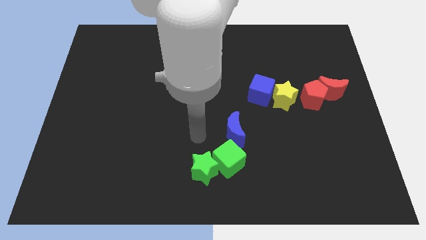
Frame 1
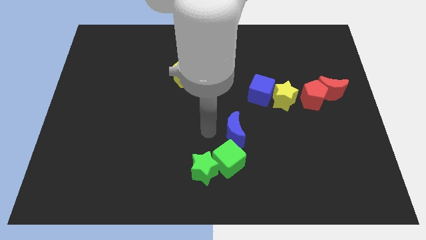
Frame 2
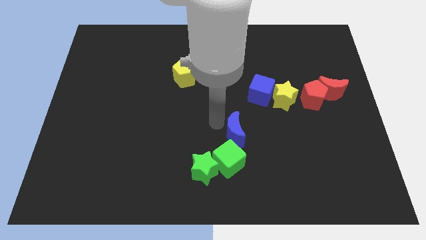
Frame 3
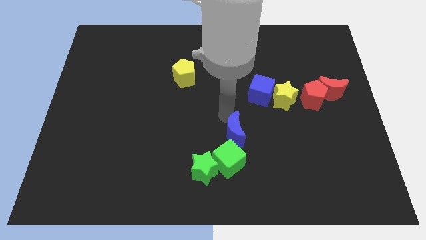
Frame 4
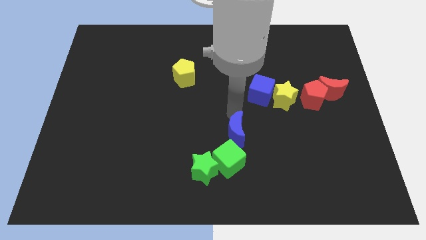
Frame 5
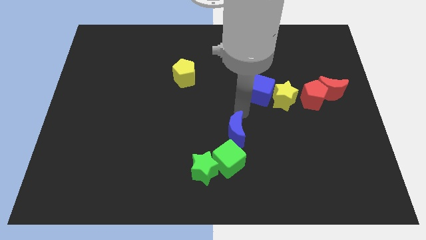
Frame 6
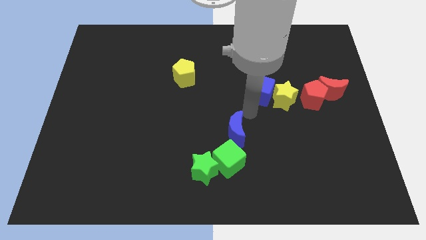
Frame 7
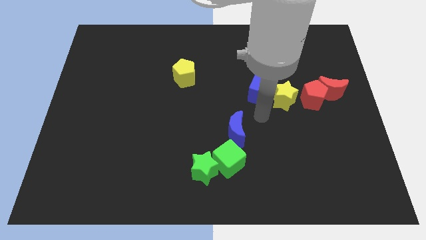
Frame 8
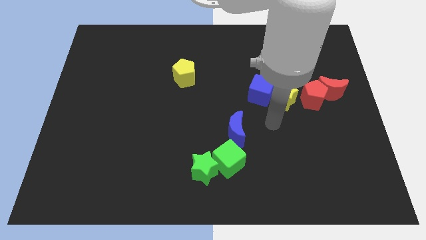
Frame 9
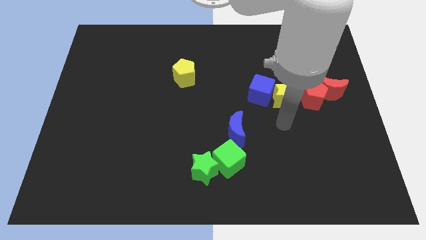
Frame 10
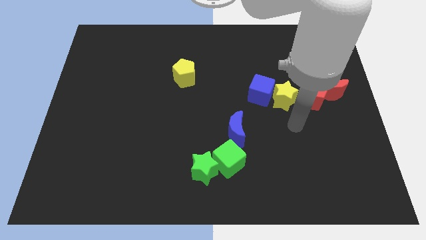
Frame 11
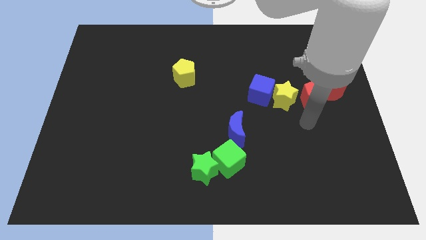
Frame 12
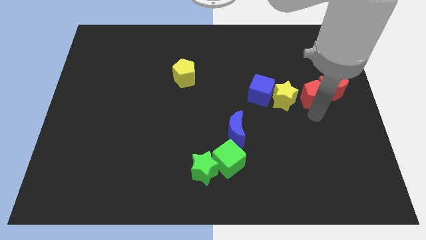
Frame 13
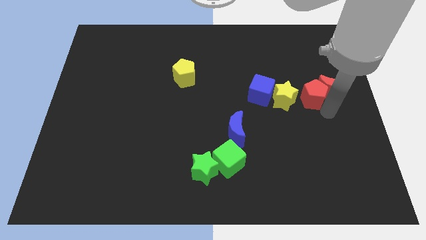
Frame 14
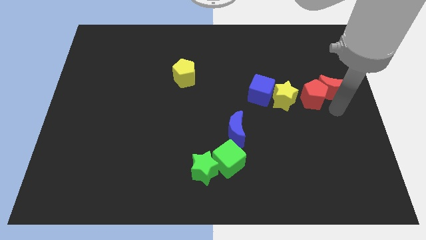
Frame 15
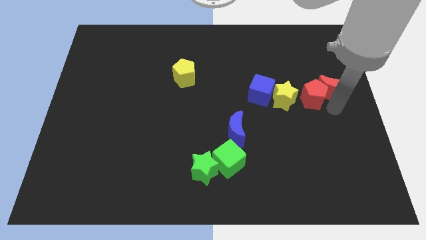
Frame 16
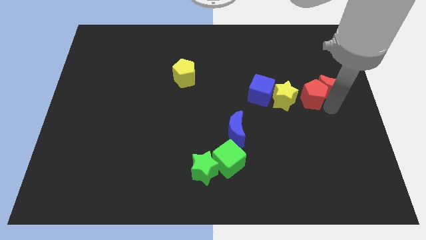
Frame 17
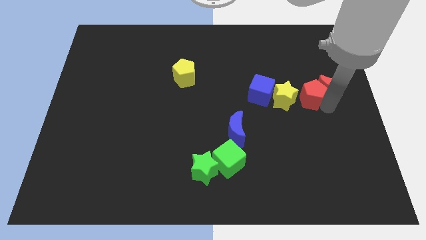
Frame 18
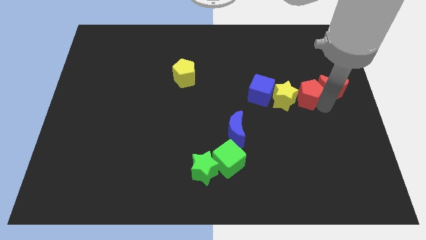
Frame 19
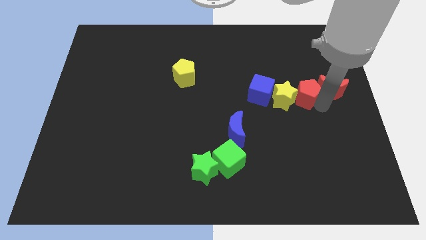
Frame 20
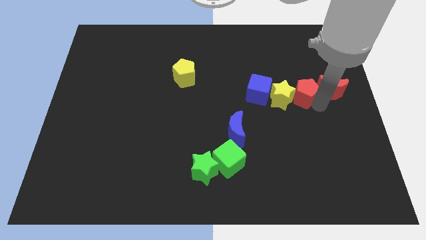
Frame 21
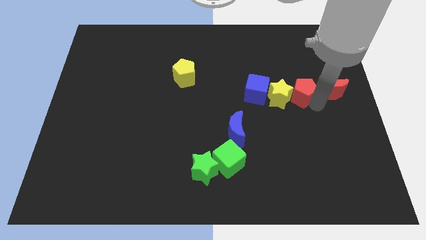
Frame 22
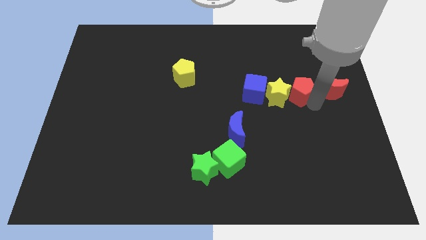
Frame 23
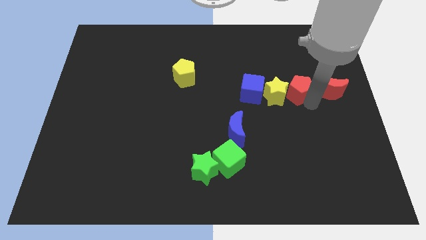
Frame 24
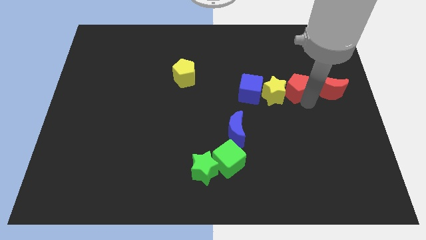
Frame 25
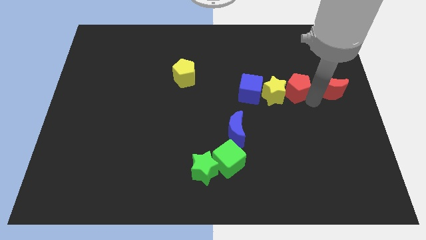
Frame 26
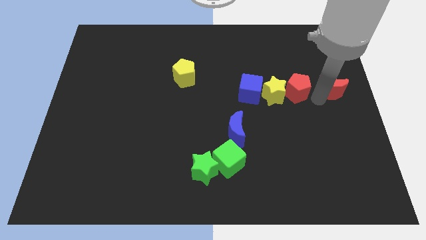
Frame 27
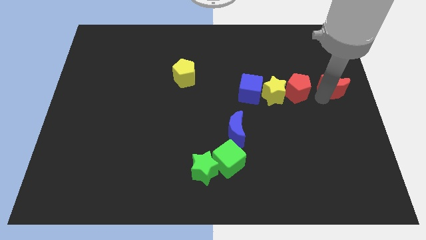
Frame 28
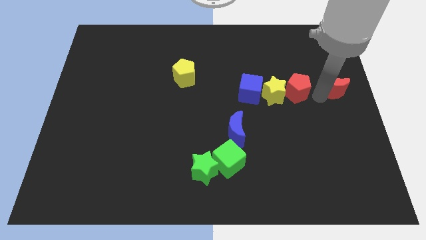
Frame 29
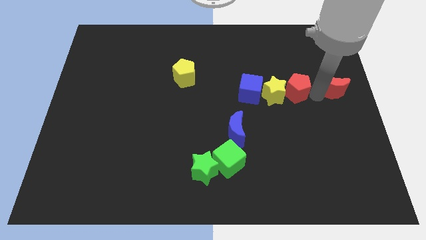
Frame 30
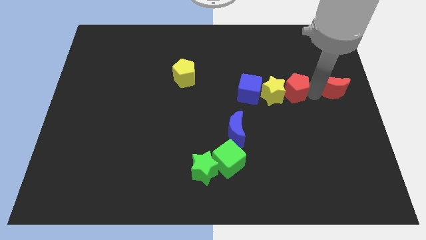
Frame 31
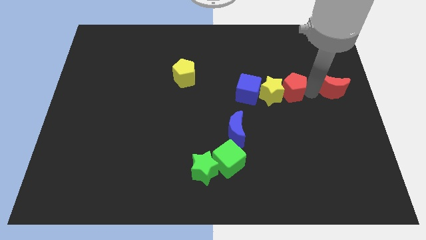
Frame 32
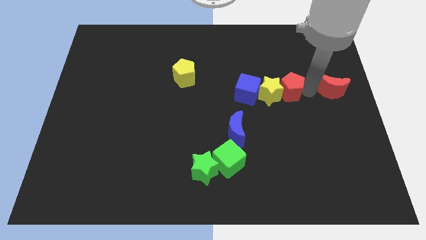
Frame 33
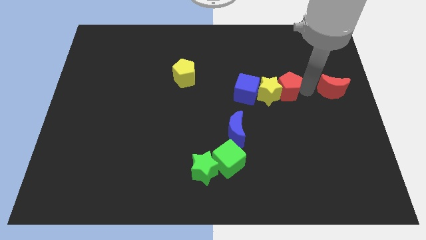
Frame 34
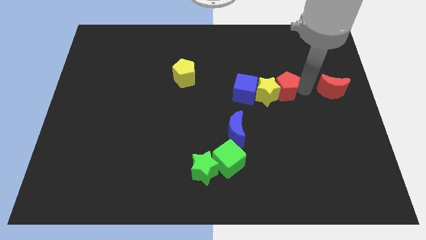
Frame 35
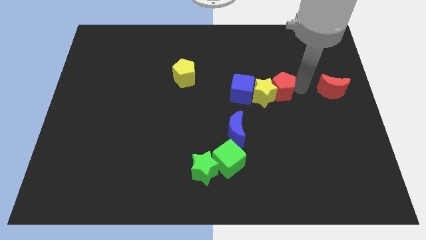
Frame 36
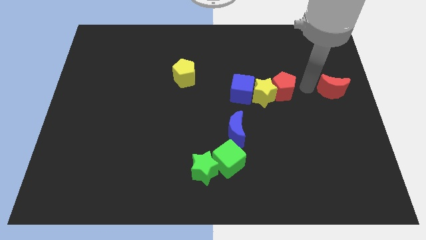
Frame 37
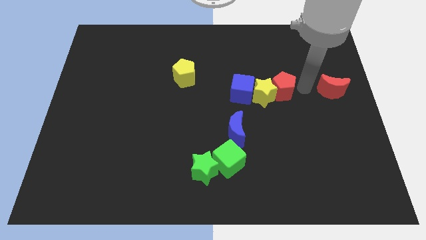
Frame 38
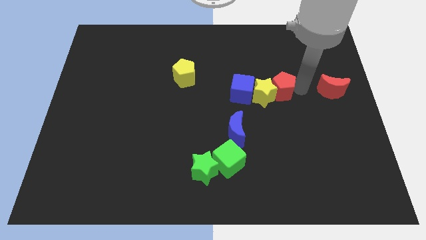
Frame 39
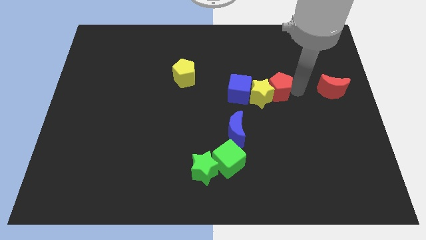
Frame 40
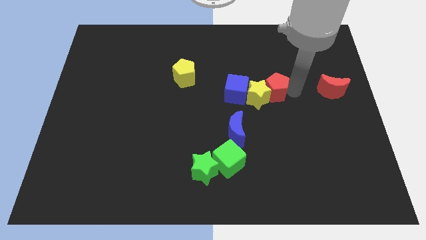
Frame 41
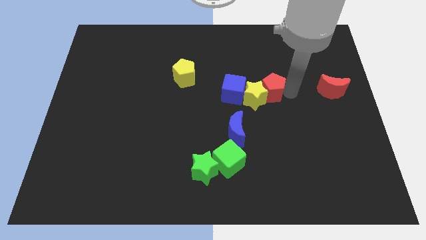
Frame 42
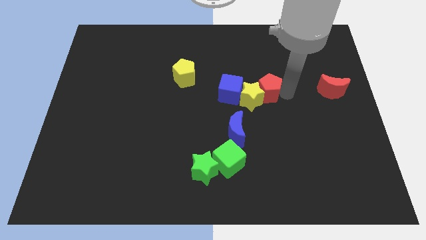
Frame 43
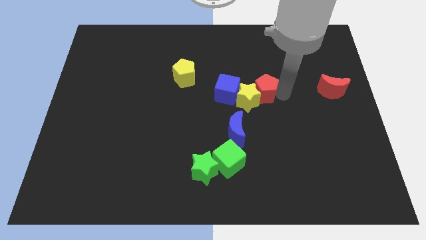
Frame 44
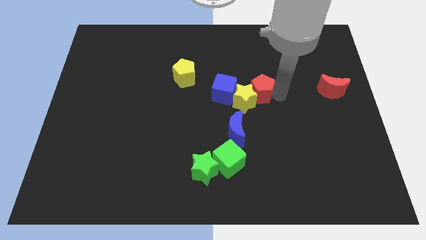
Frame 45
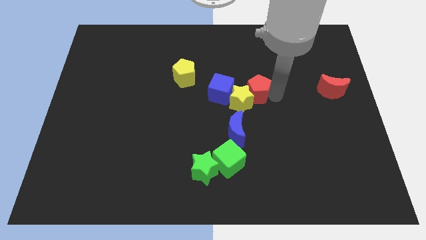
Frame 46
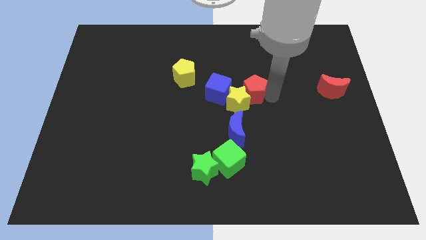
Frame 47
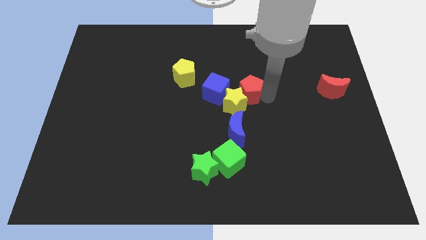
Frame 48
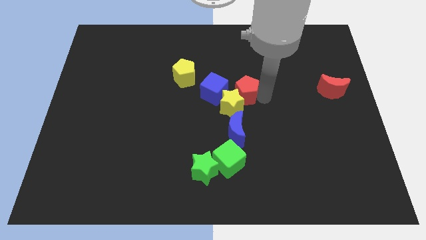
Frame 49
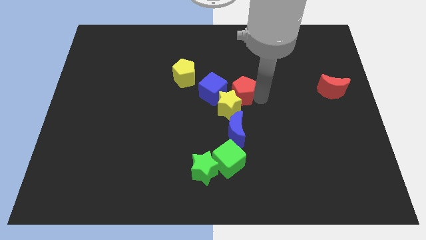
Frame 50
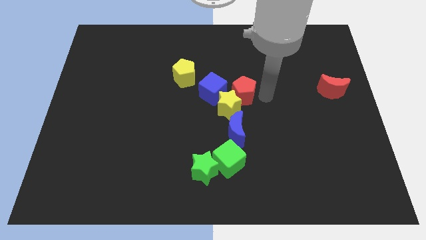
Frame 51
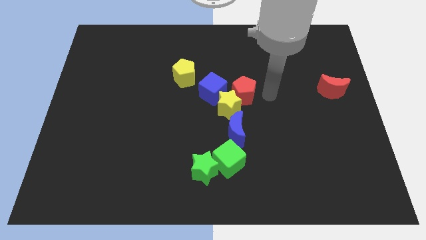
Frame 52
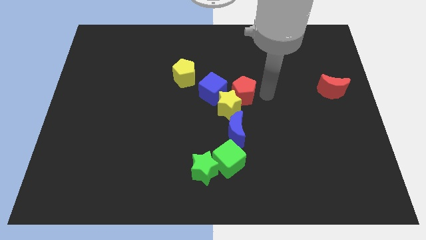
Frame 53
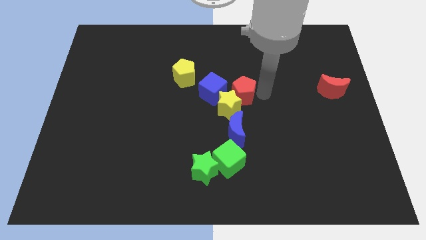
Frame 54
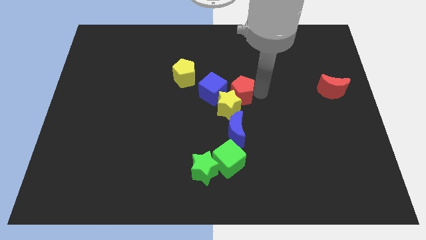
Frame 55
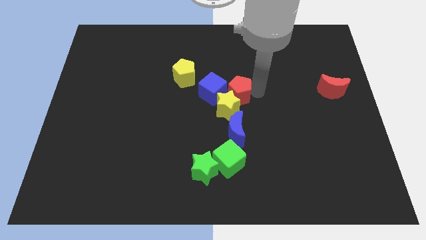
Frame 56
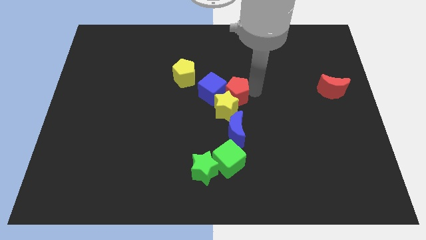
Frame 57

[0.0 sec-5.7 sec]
push the red pentagon next to the blue cube

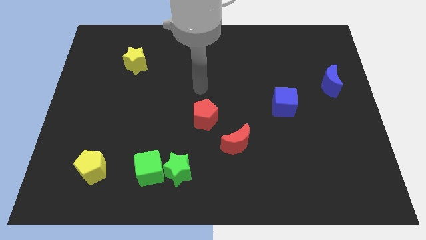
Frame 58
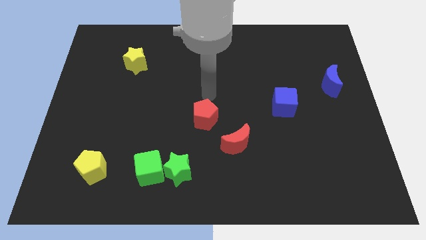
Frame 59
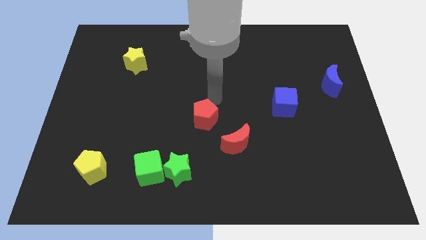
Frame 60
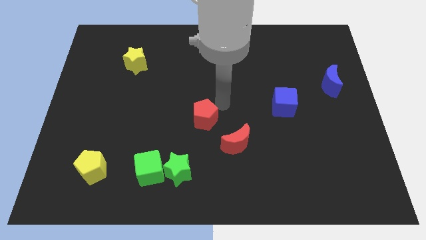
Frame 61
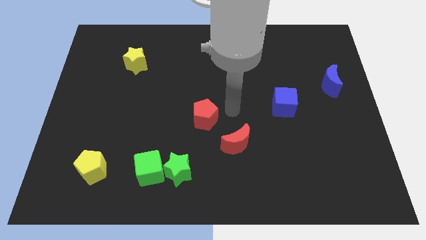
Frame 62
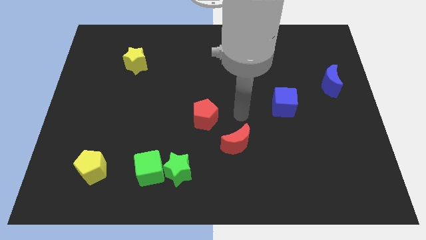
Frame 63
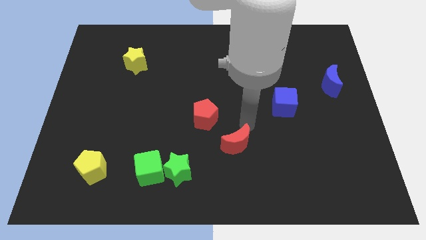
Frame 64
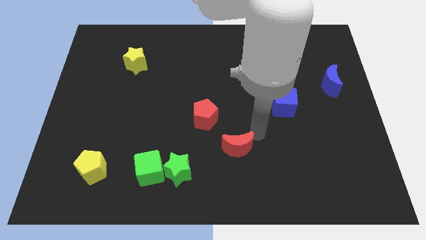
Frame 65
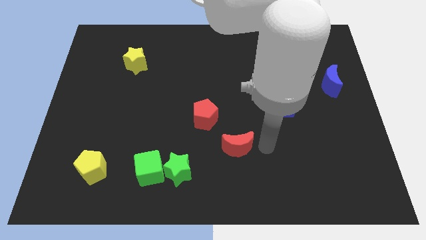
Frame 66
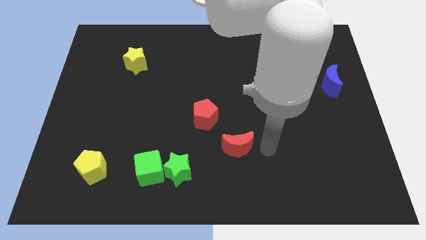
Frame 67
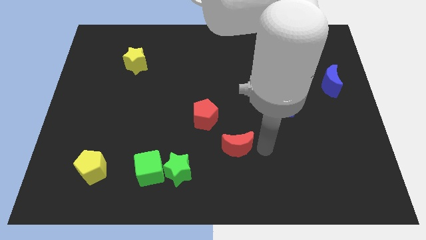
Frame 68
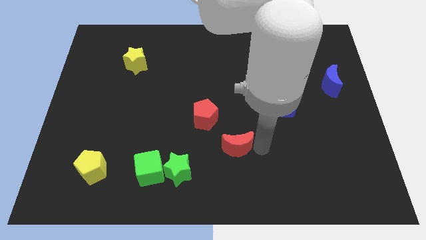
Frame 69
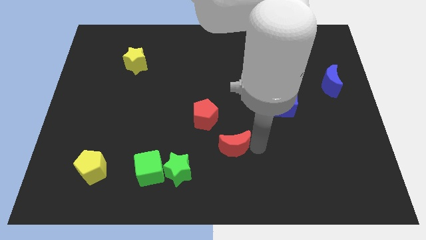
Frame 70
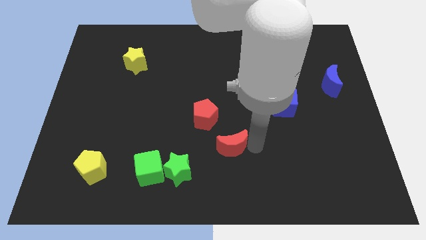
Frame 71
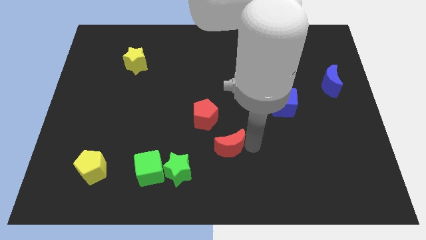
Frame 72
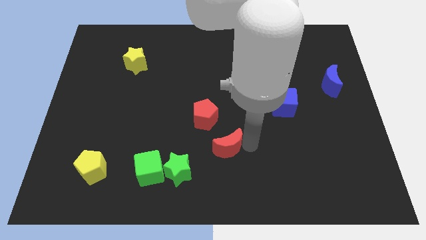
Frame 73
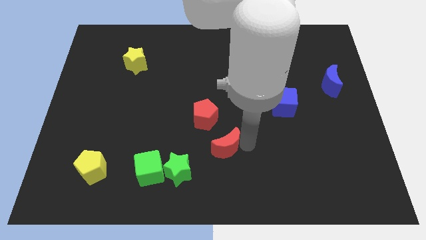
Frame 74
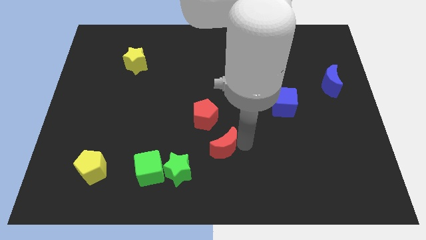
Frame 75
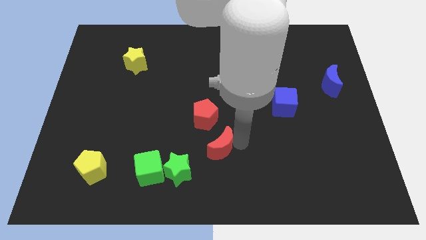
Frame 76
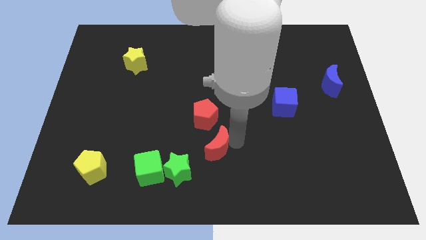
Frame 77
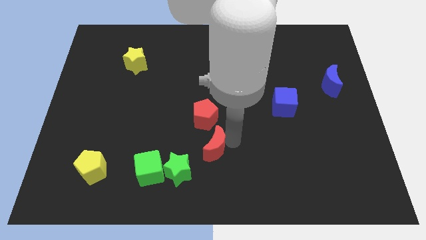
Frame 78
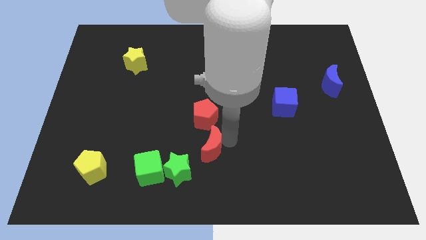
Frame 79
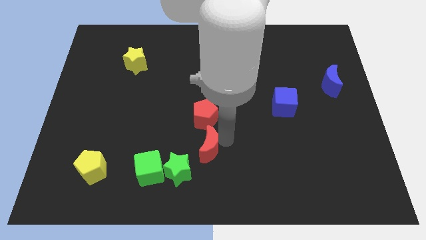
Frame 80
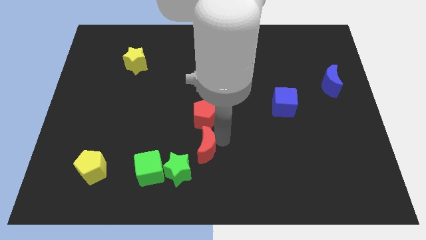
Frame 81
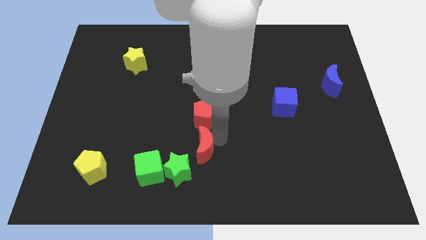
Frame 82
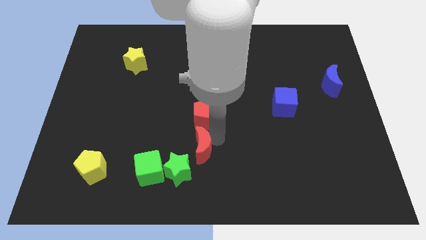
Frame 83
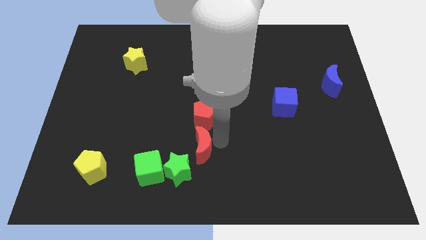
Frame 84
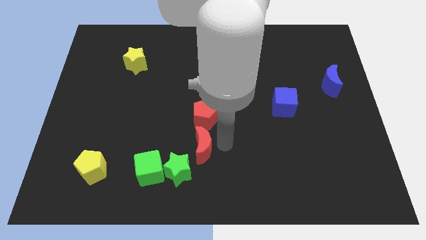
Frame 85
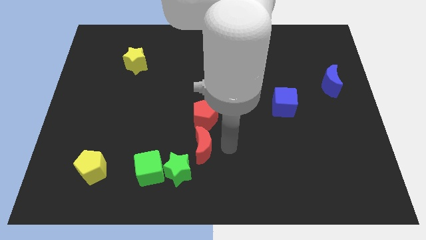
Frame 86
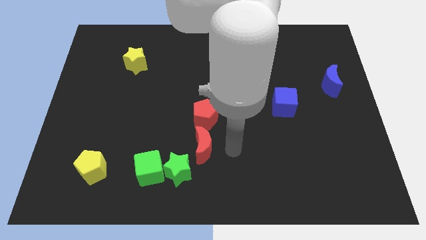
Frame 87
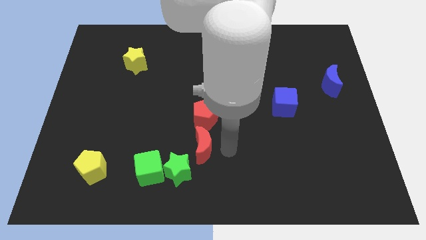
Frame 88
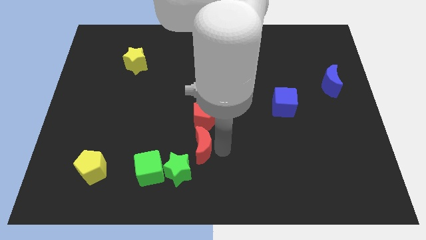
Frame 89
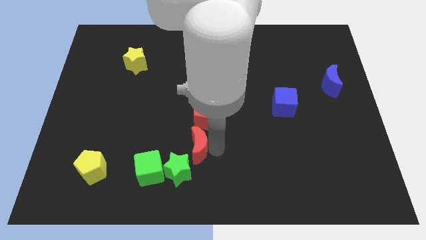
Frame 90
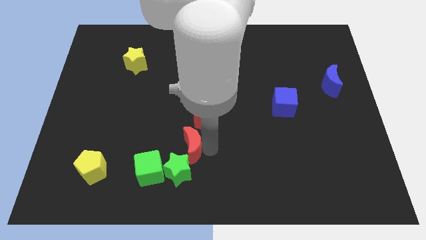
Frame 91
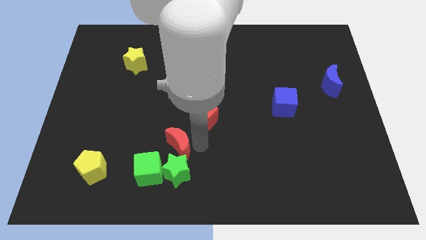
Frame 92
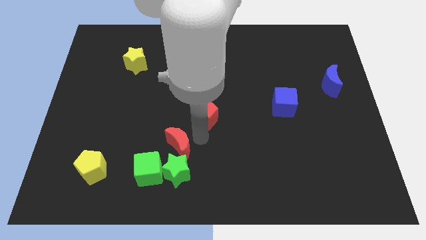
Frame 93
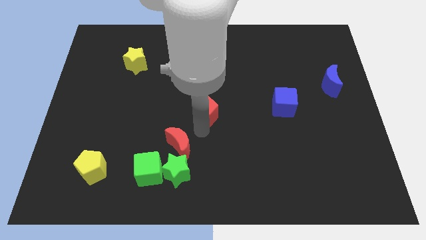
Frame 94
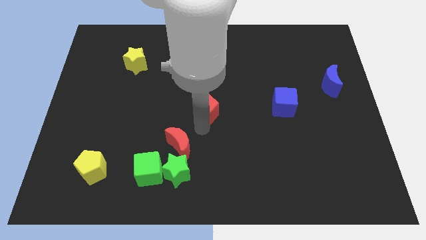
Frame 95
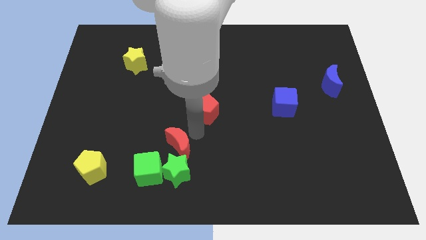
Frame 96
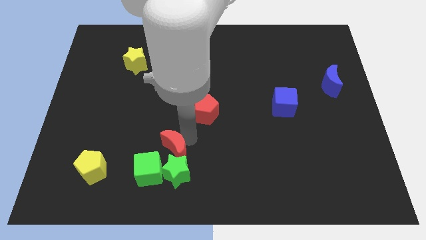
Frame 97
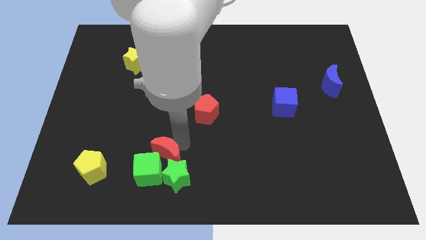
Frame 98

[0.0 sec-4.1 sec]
move the red moon to the green cube
